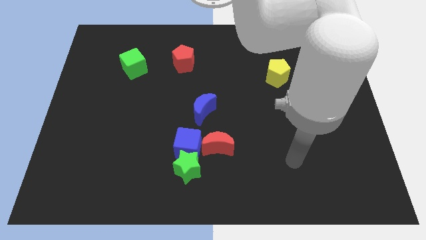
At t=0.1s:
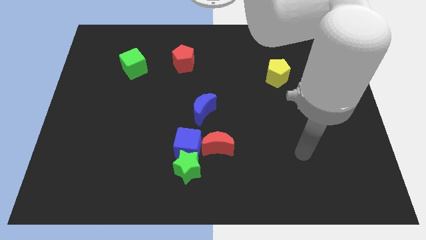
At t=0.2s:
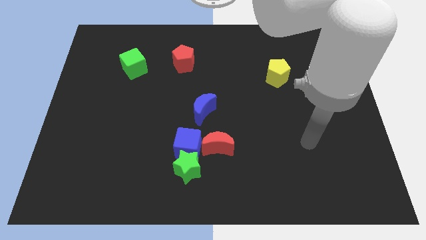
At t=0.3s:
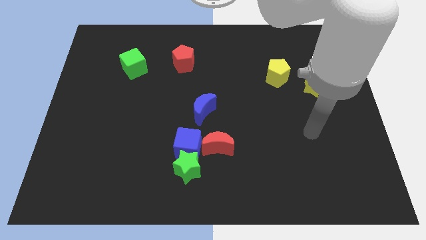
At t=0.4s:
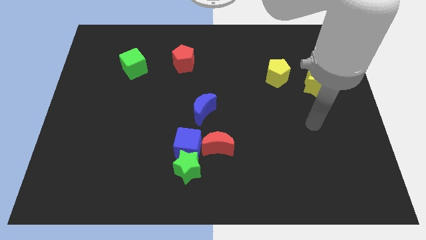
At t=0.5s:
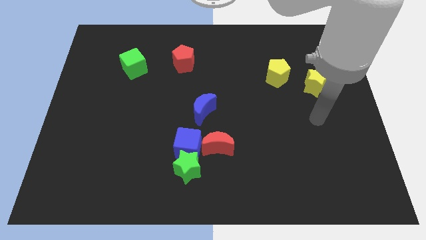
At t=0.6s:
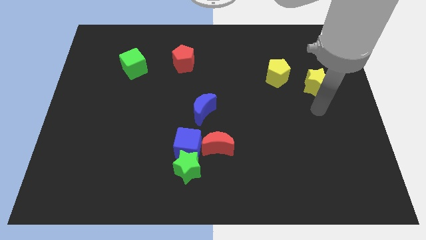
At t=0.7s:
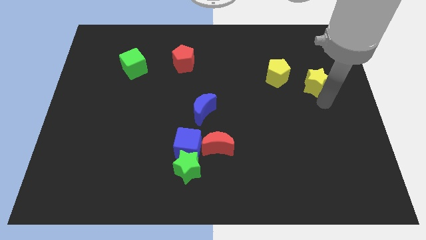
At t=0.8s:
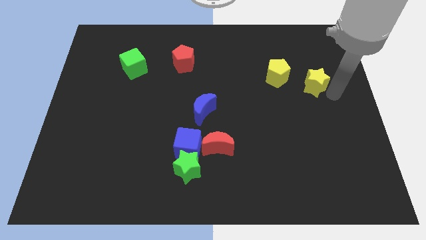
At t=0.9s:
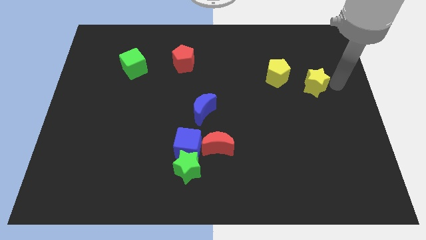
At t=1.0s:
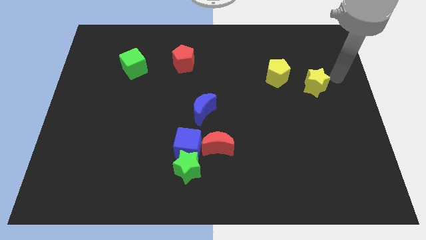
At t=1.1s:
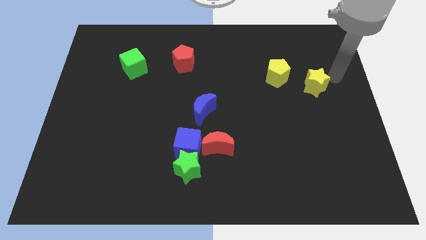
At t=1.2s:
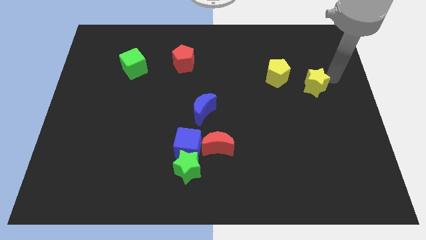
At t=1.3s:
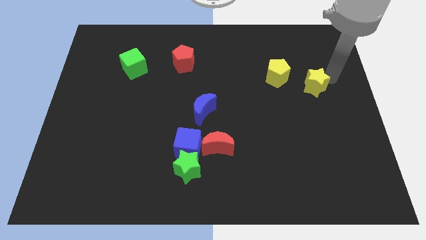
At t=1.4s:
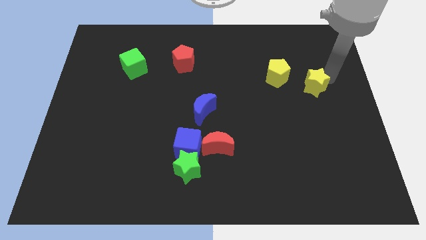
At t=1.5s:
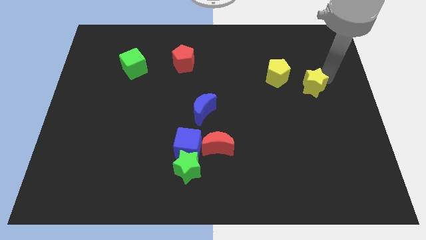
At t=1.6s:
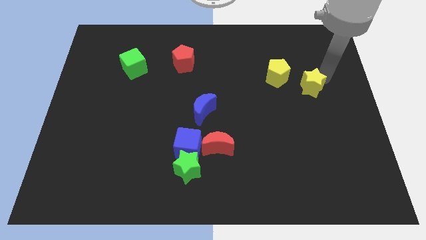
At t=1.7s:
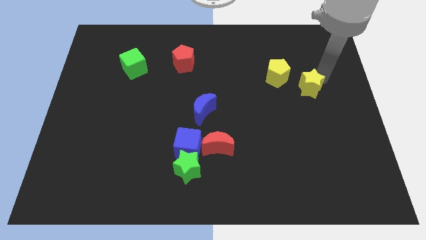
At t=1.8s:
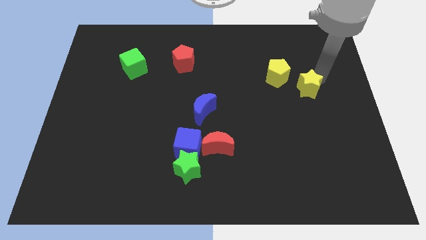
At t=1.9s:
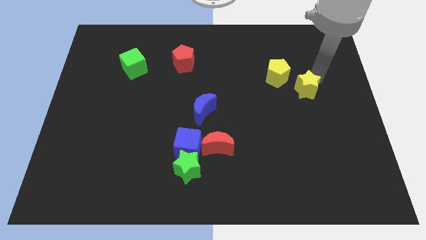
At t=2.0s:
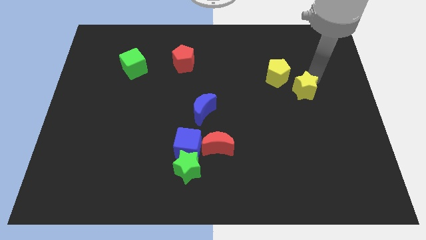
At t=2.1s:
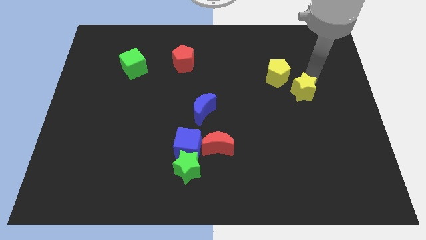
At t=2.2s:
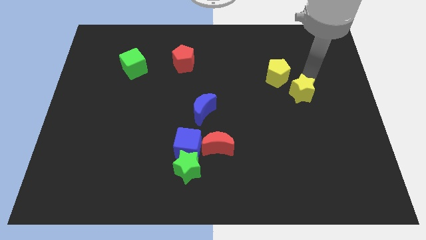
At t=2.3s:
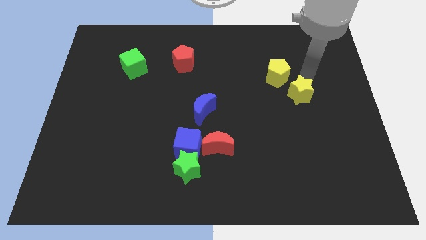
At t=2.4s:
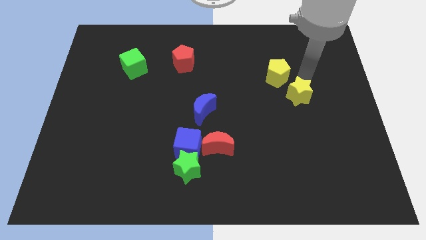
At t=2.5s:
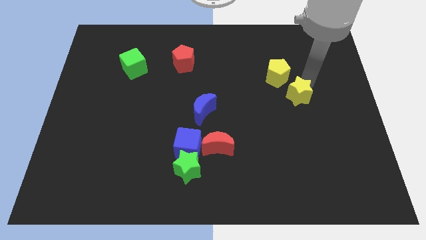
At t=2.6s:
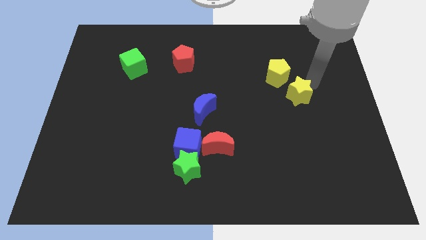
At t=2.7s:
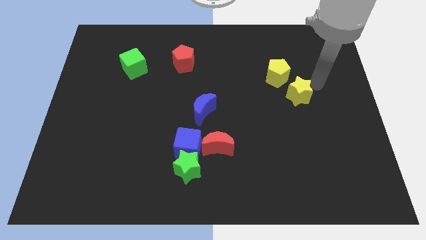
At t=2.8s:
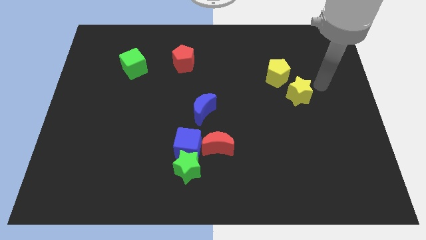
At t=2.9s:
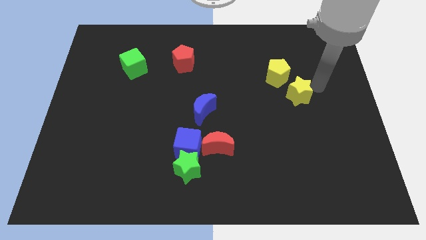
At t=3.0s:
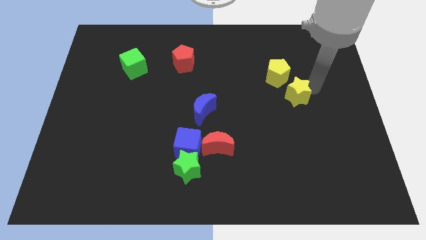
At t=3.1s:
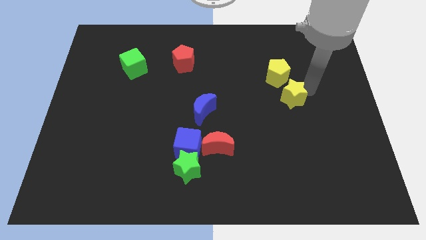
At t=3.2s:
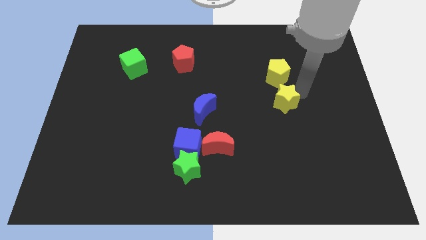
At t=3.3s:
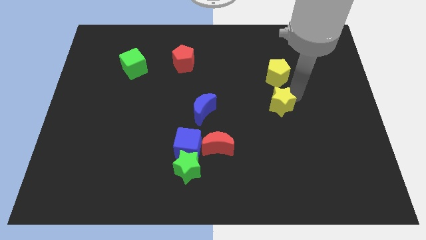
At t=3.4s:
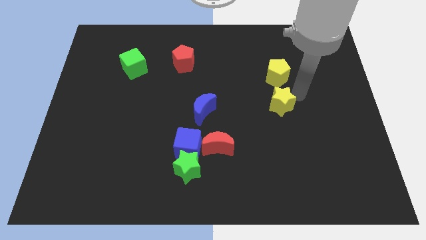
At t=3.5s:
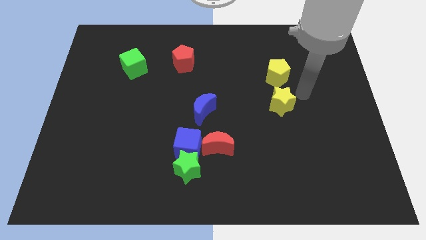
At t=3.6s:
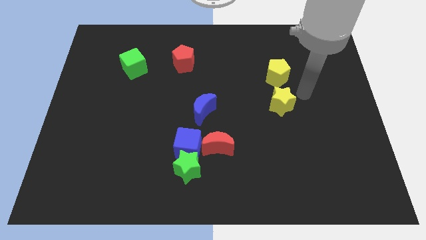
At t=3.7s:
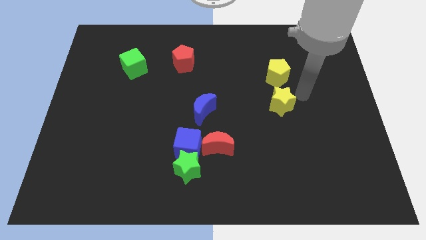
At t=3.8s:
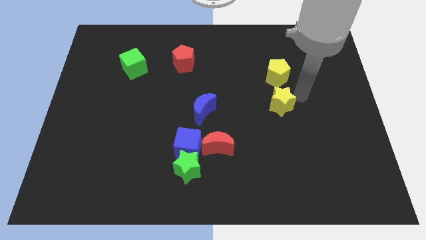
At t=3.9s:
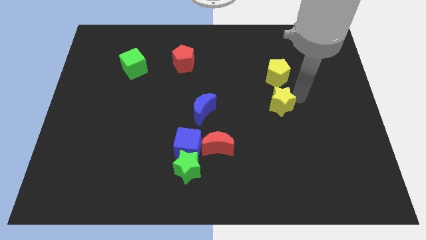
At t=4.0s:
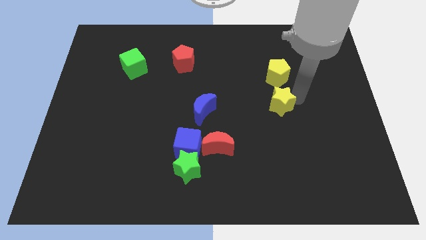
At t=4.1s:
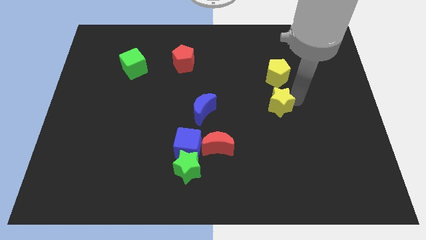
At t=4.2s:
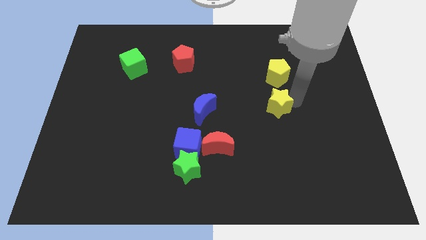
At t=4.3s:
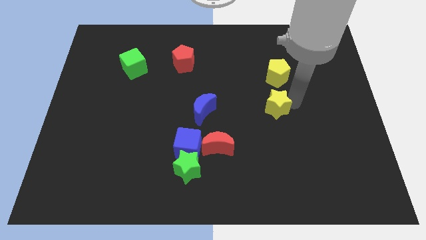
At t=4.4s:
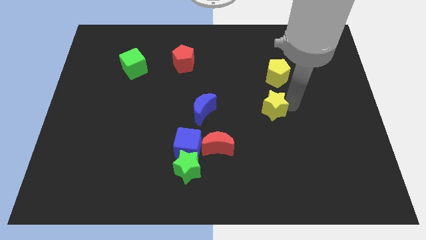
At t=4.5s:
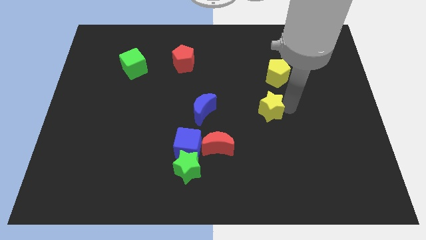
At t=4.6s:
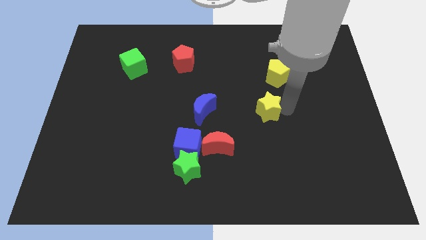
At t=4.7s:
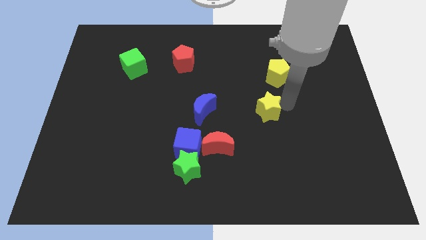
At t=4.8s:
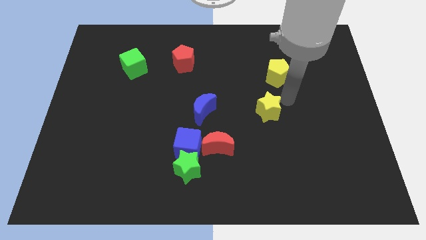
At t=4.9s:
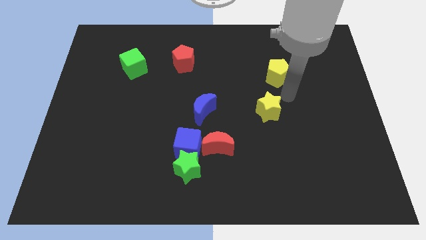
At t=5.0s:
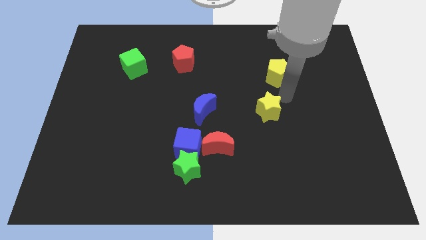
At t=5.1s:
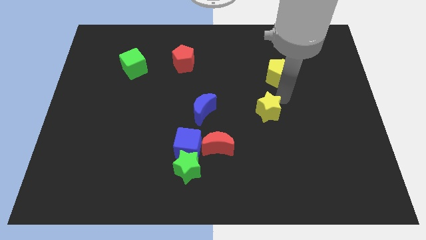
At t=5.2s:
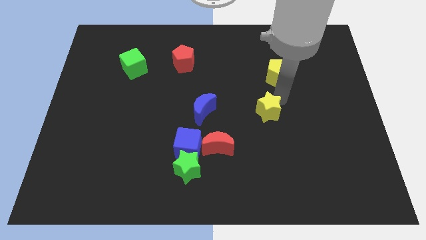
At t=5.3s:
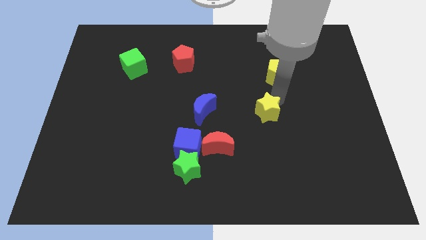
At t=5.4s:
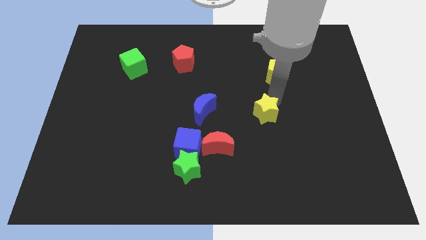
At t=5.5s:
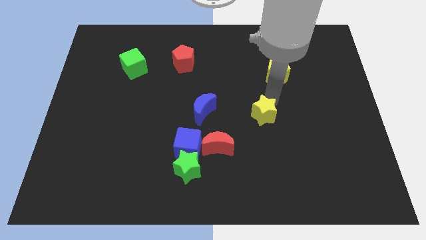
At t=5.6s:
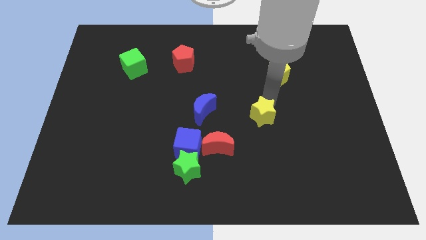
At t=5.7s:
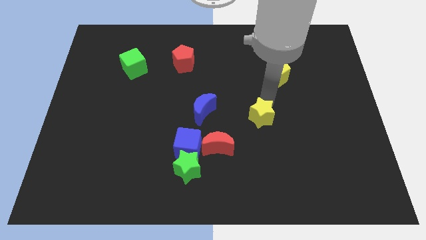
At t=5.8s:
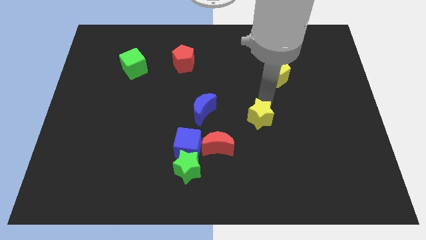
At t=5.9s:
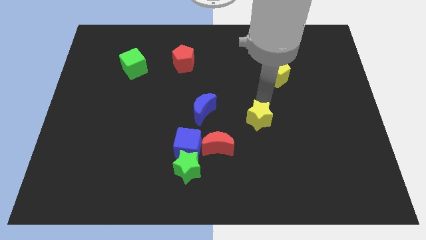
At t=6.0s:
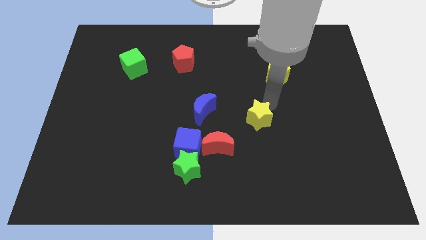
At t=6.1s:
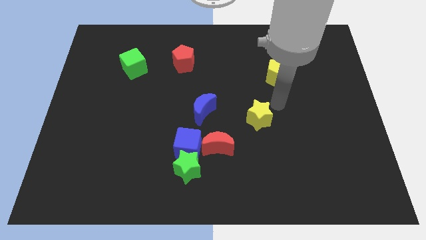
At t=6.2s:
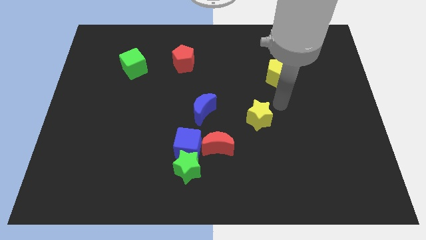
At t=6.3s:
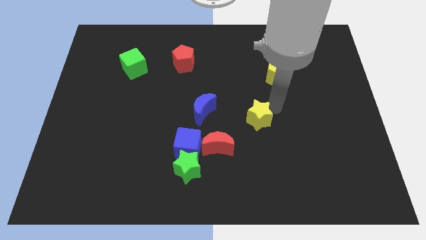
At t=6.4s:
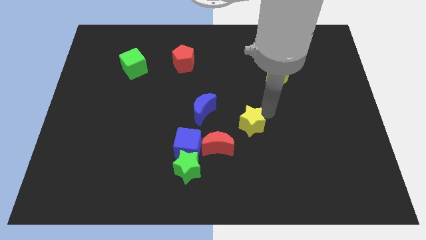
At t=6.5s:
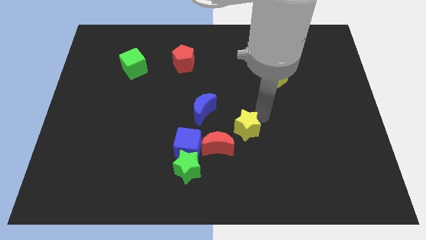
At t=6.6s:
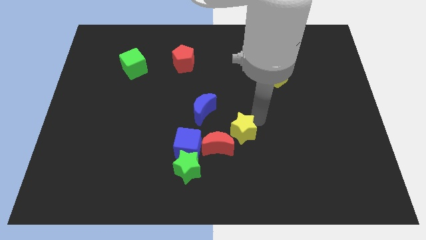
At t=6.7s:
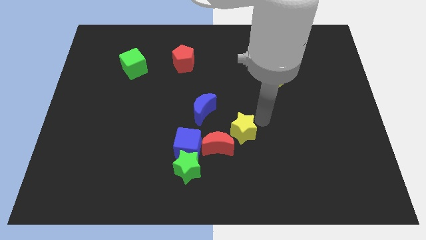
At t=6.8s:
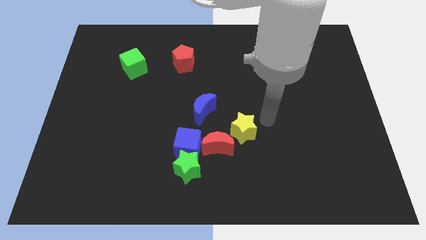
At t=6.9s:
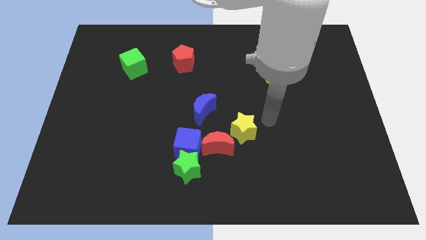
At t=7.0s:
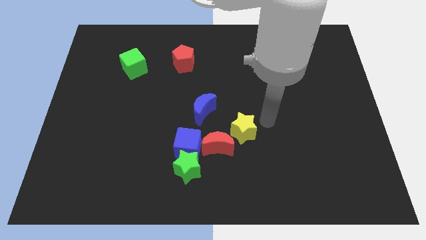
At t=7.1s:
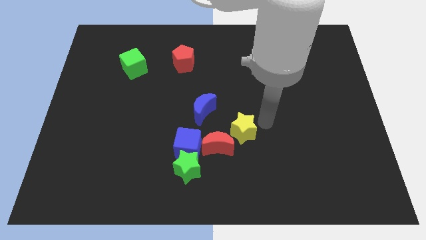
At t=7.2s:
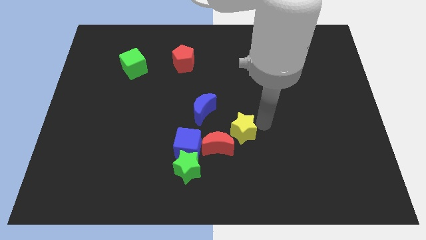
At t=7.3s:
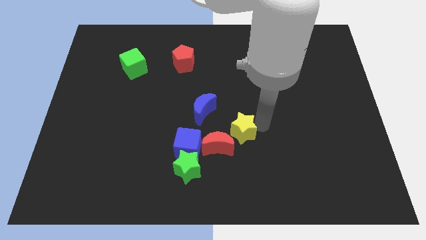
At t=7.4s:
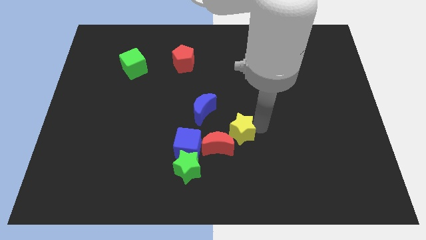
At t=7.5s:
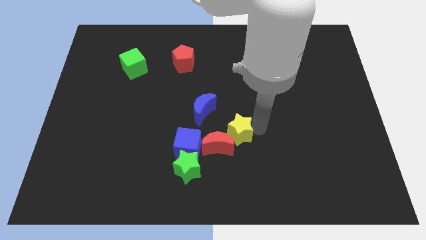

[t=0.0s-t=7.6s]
put the yellow star to the red moon
